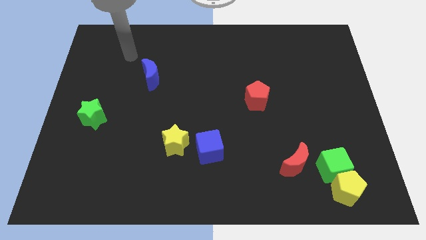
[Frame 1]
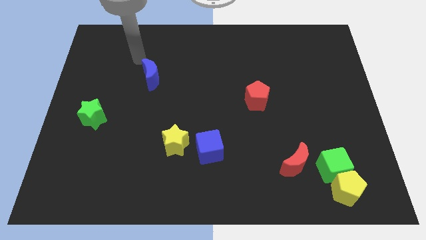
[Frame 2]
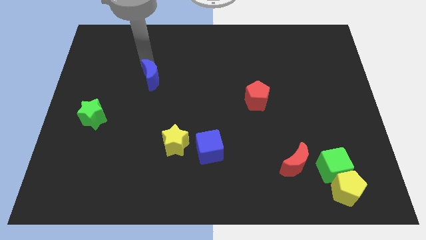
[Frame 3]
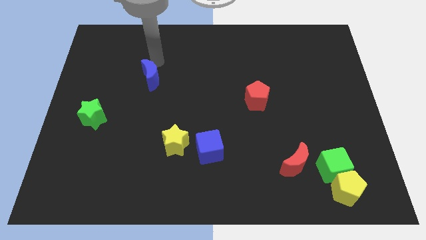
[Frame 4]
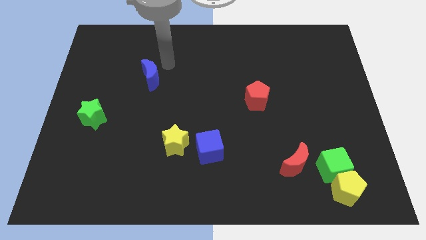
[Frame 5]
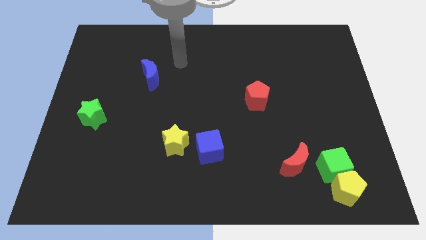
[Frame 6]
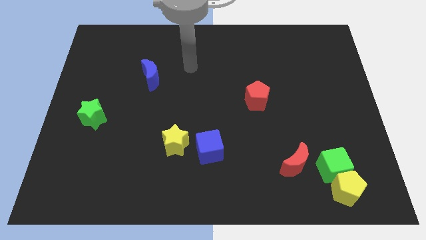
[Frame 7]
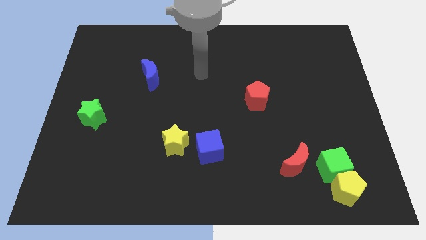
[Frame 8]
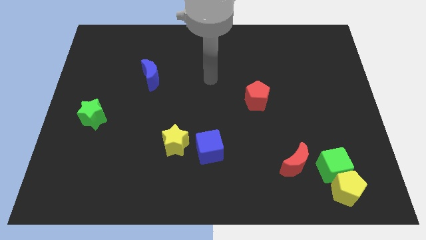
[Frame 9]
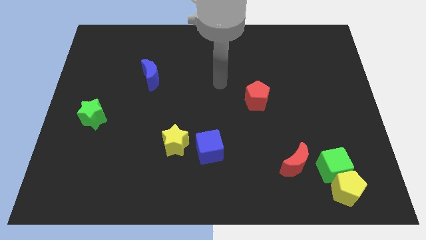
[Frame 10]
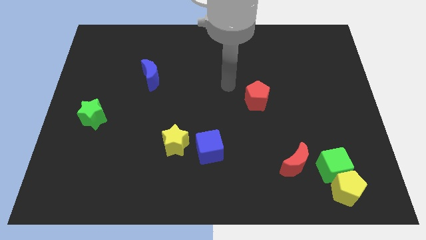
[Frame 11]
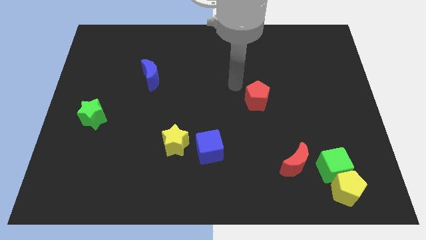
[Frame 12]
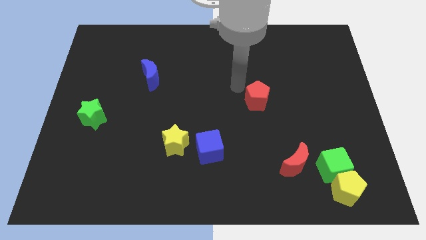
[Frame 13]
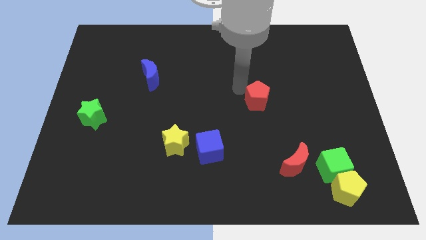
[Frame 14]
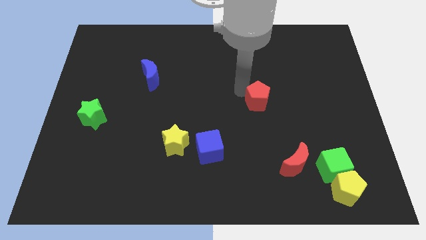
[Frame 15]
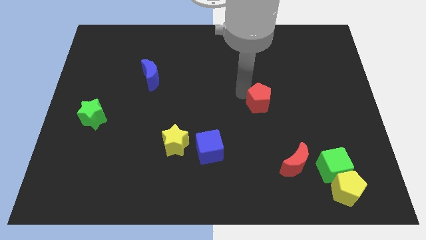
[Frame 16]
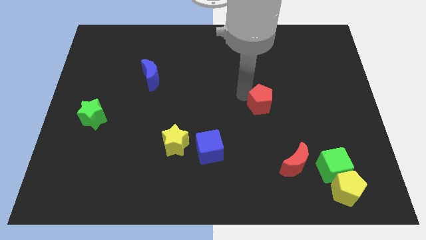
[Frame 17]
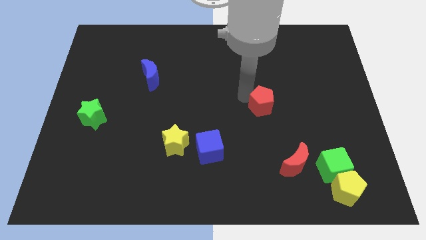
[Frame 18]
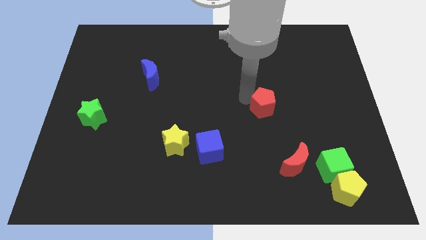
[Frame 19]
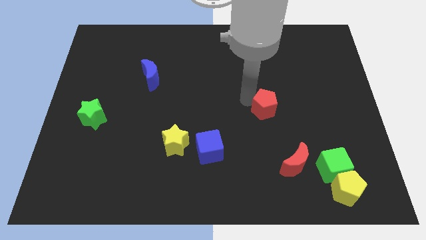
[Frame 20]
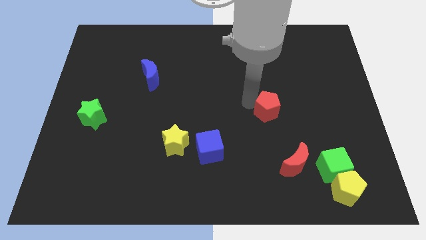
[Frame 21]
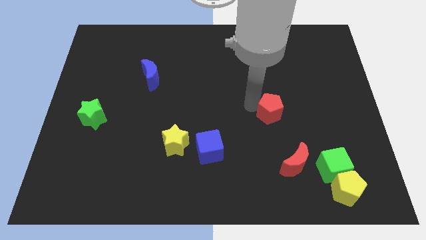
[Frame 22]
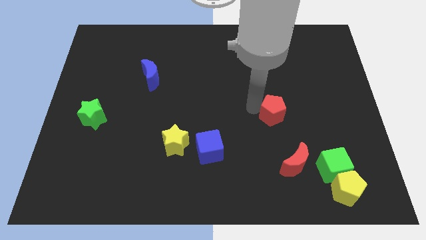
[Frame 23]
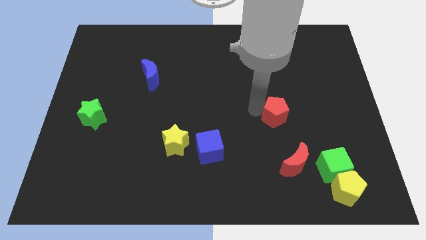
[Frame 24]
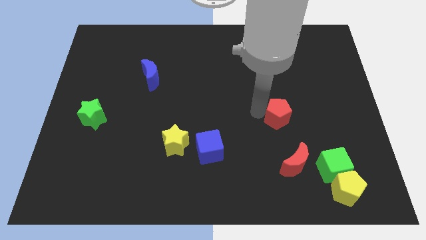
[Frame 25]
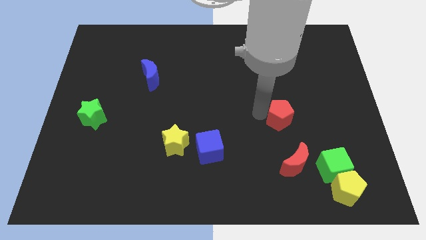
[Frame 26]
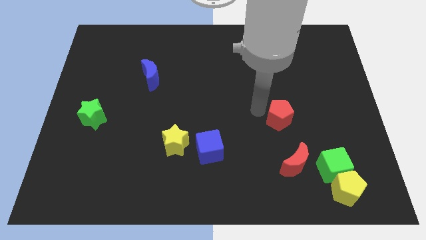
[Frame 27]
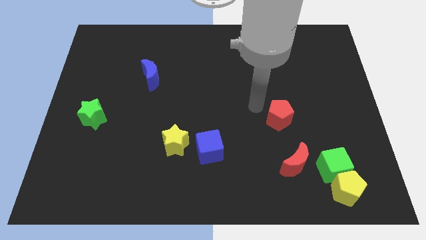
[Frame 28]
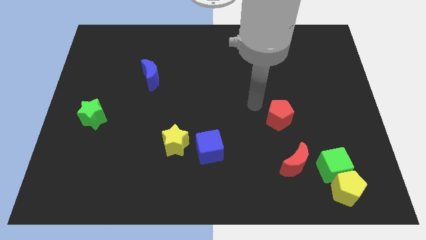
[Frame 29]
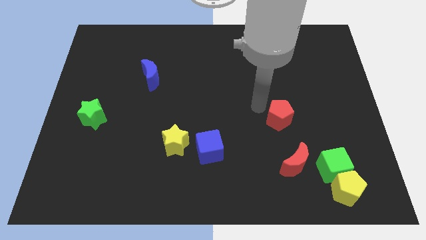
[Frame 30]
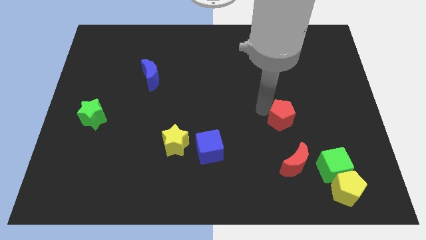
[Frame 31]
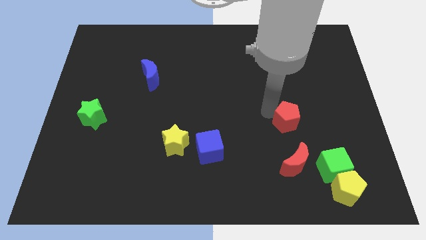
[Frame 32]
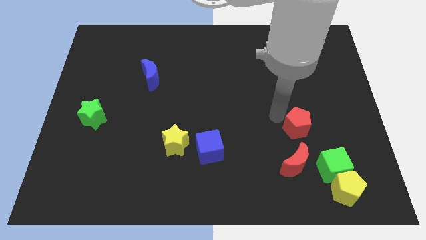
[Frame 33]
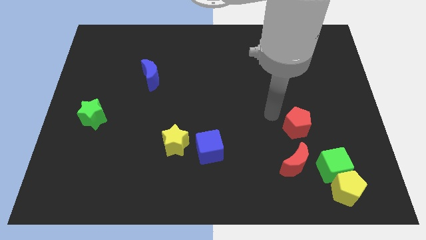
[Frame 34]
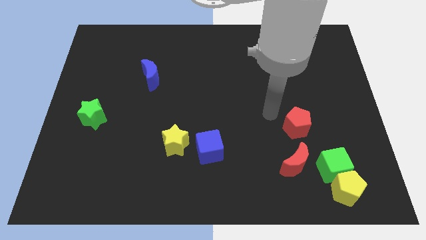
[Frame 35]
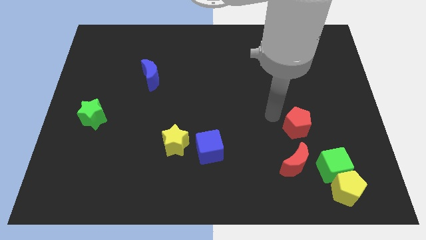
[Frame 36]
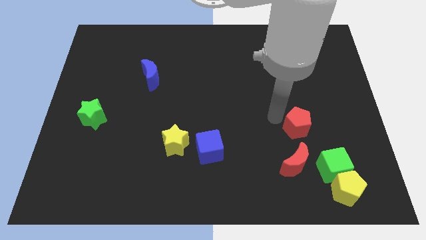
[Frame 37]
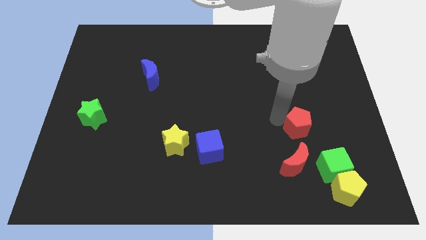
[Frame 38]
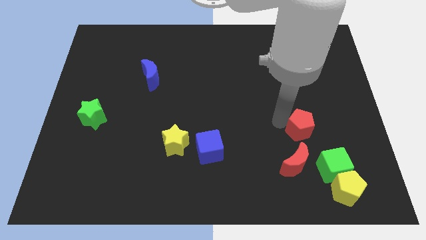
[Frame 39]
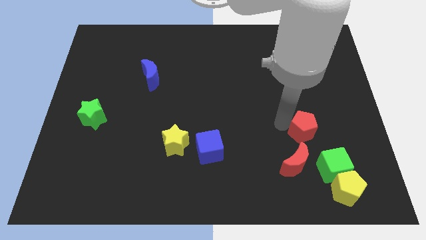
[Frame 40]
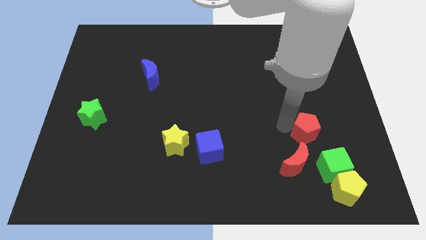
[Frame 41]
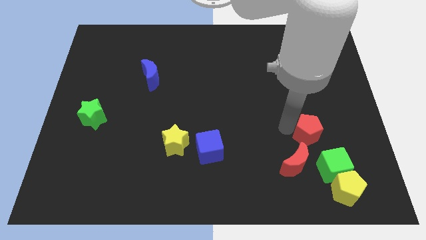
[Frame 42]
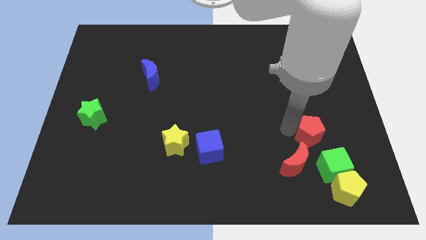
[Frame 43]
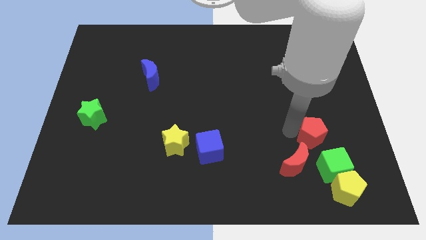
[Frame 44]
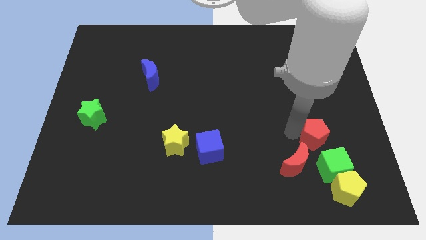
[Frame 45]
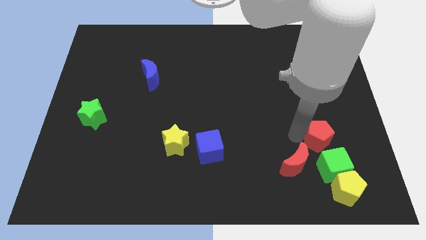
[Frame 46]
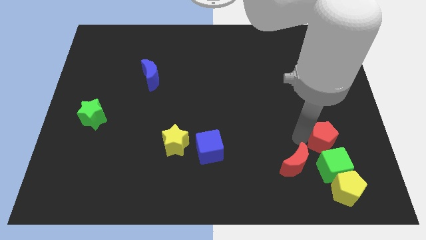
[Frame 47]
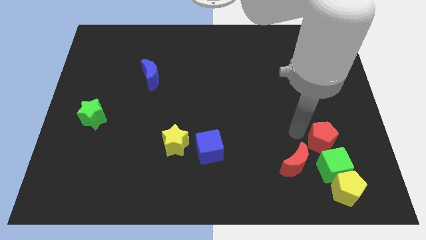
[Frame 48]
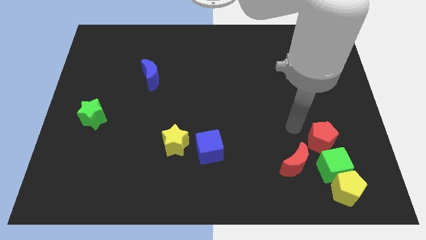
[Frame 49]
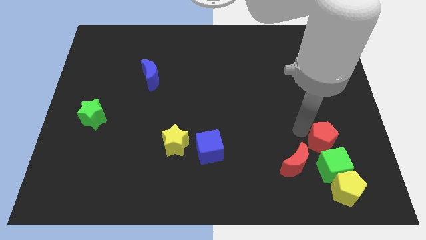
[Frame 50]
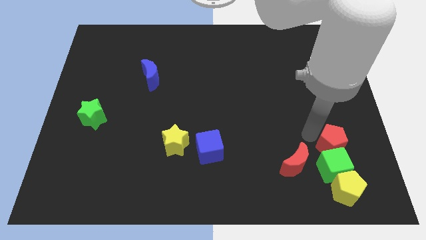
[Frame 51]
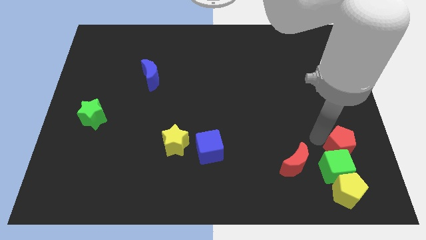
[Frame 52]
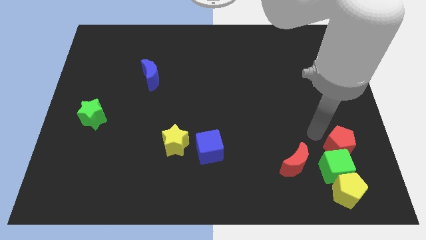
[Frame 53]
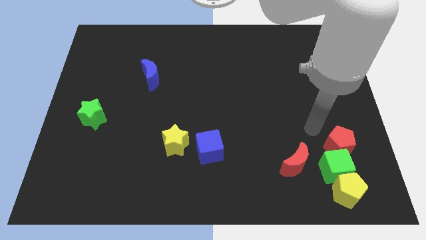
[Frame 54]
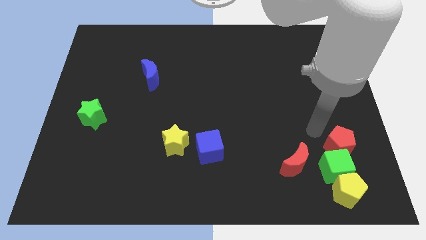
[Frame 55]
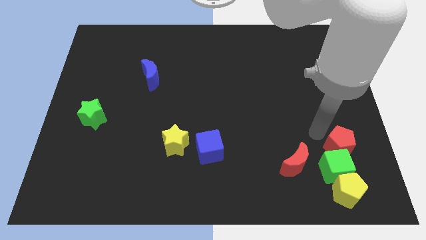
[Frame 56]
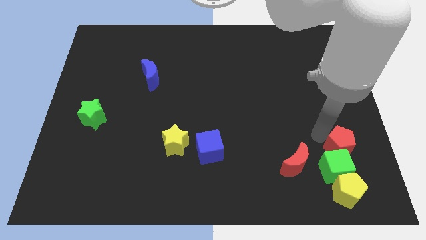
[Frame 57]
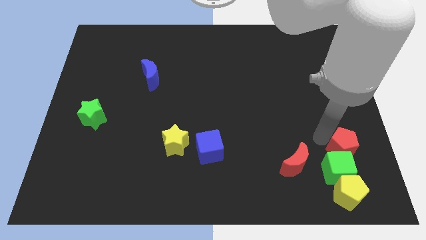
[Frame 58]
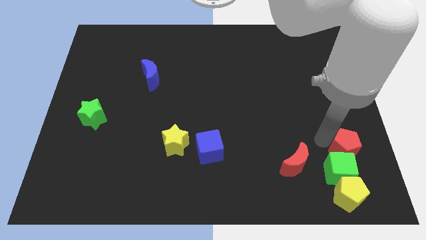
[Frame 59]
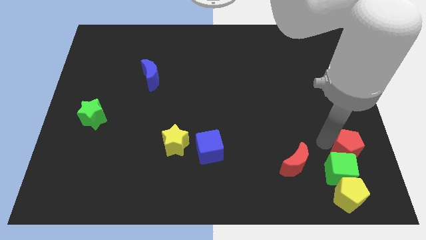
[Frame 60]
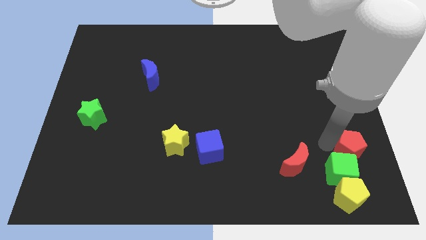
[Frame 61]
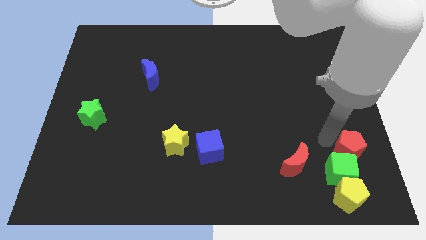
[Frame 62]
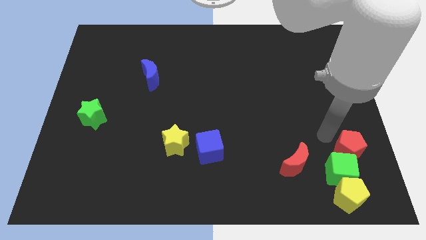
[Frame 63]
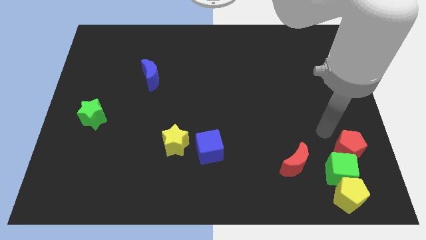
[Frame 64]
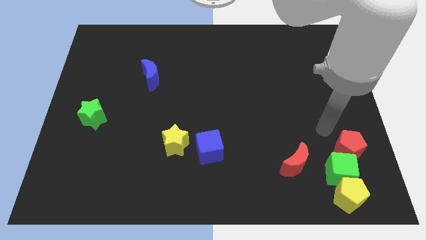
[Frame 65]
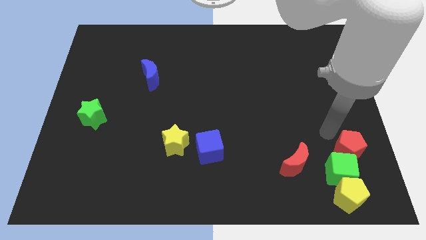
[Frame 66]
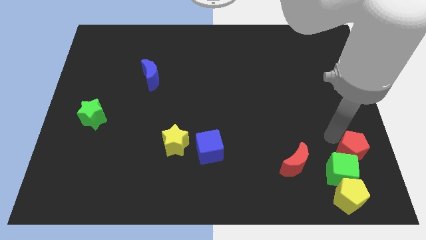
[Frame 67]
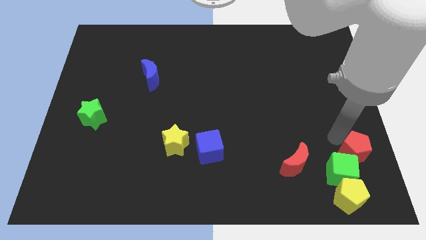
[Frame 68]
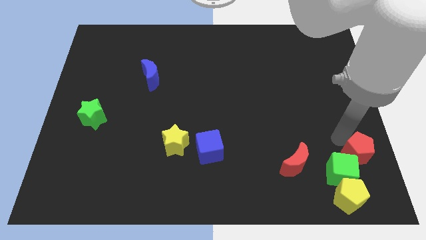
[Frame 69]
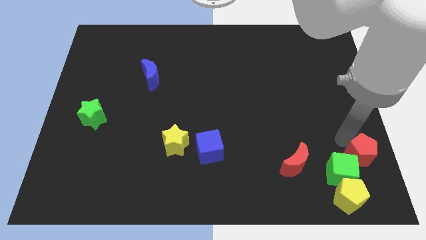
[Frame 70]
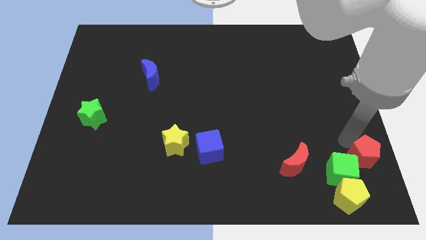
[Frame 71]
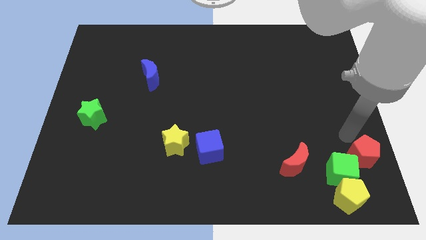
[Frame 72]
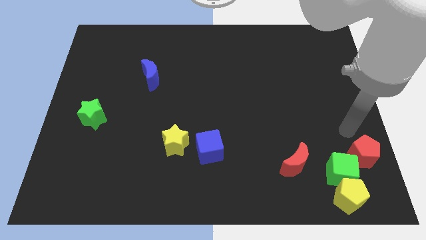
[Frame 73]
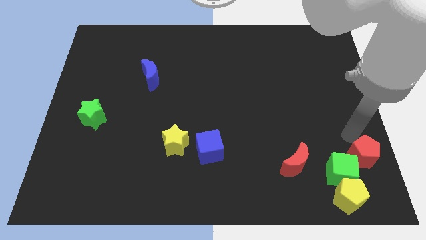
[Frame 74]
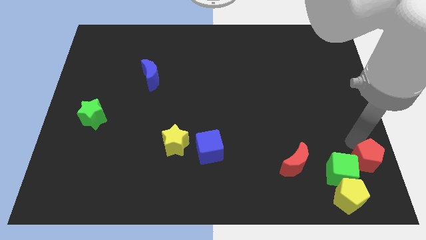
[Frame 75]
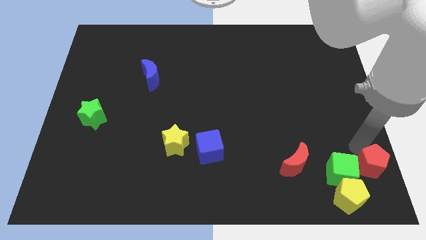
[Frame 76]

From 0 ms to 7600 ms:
put the red pentagon to the bottom right
